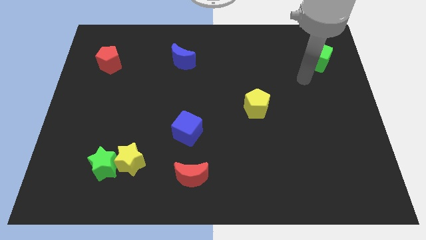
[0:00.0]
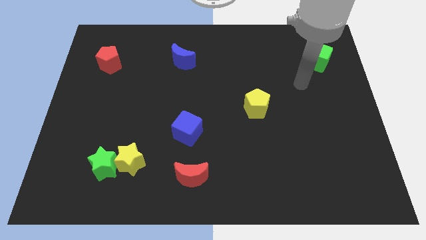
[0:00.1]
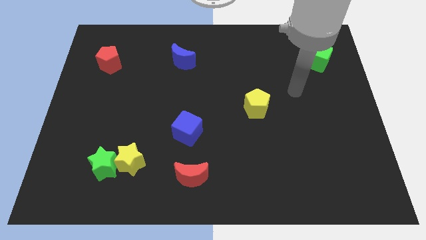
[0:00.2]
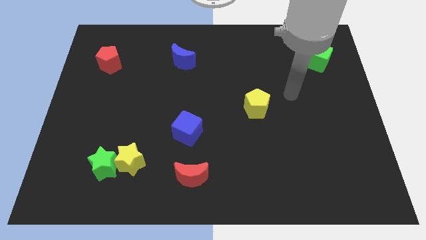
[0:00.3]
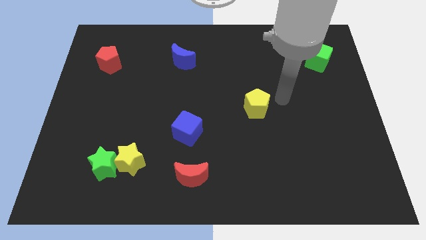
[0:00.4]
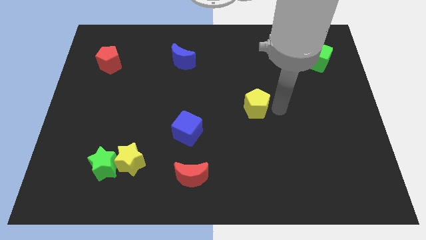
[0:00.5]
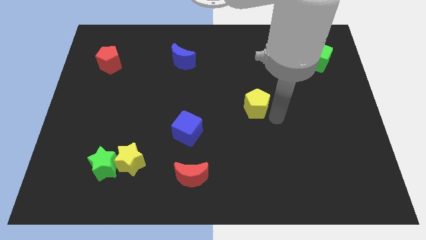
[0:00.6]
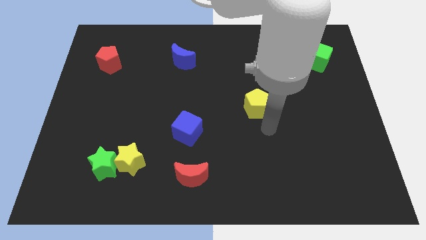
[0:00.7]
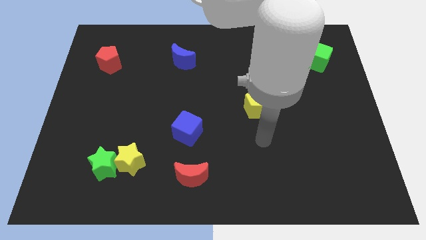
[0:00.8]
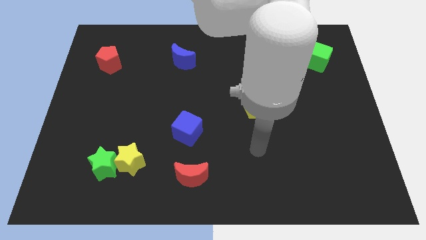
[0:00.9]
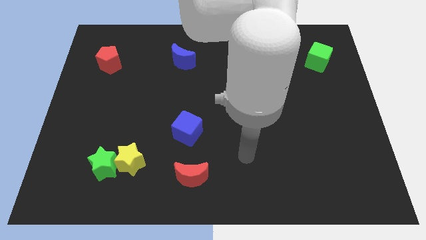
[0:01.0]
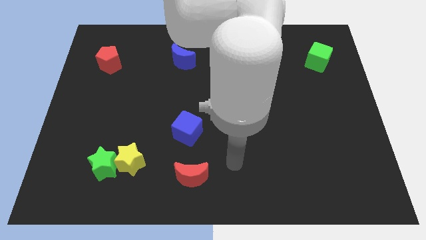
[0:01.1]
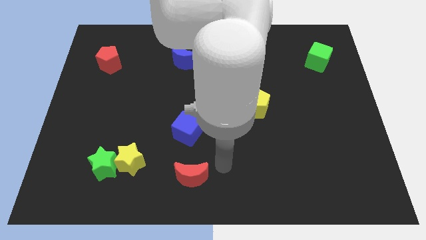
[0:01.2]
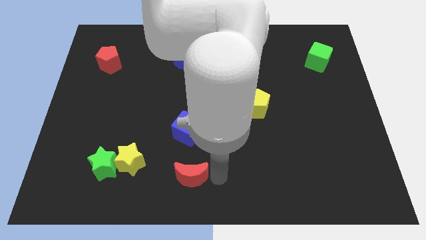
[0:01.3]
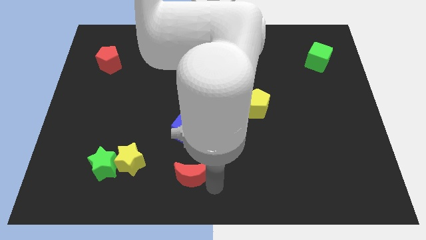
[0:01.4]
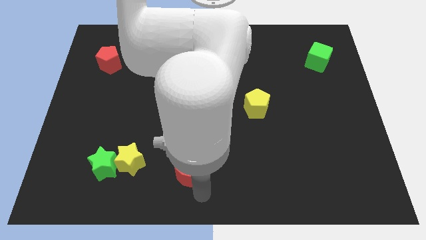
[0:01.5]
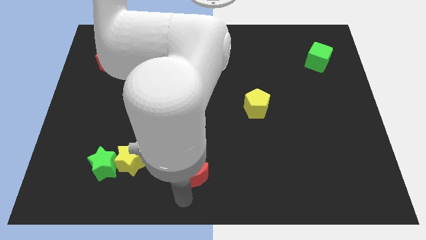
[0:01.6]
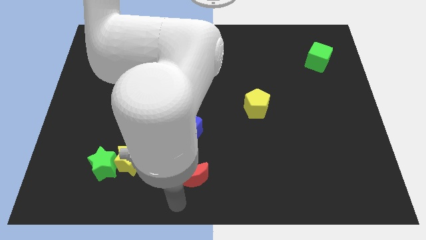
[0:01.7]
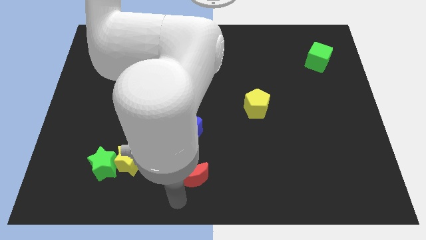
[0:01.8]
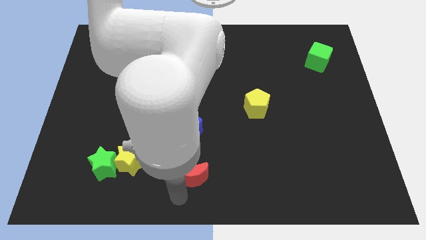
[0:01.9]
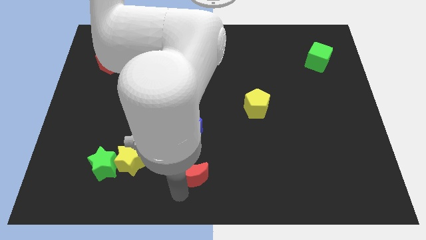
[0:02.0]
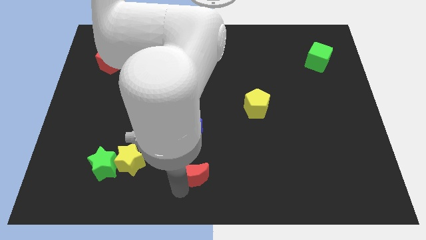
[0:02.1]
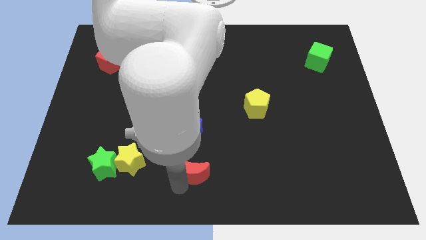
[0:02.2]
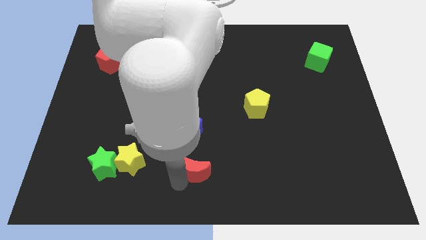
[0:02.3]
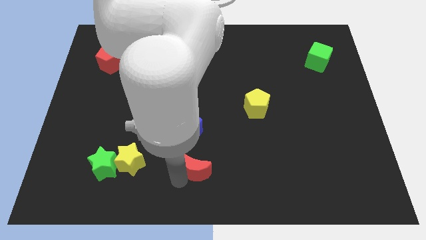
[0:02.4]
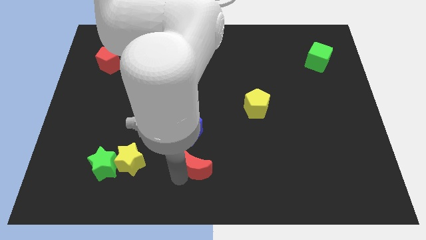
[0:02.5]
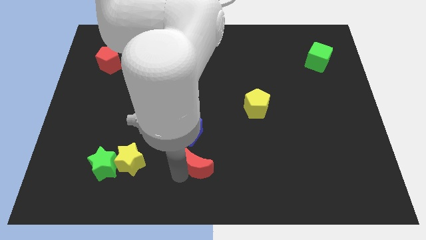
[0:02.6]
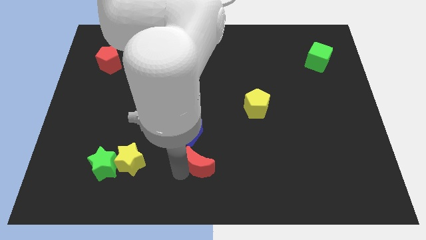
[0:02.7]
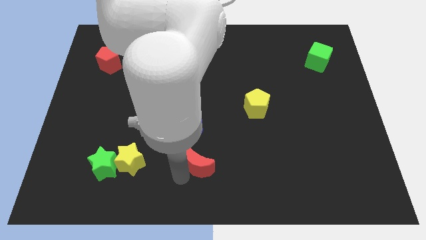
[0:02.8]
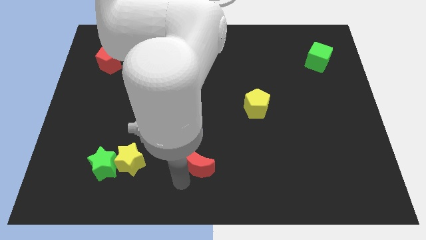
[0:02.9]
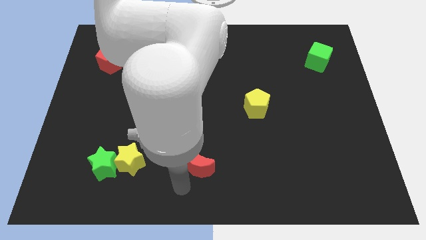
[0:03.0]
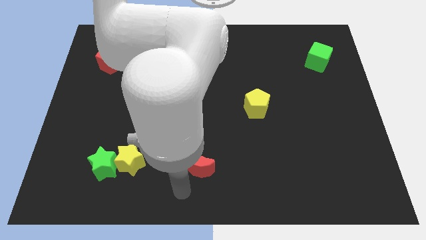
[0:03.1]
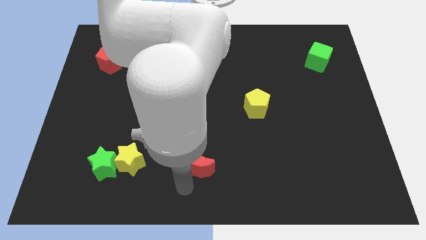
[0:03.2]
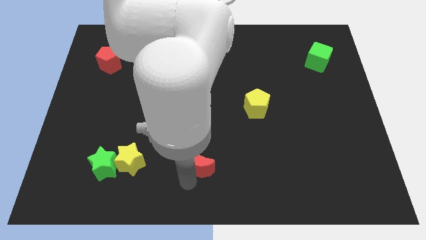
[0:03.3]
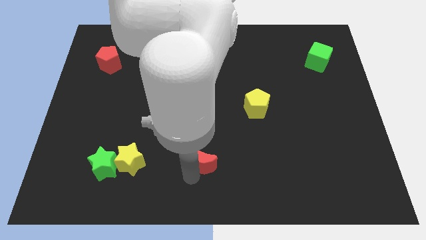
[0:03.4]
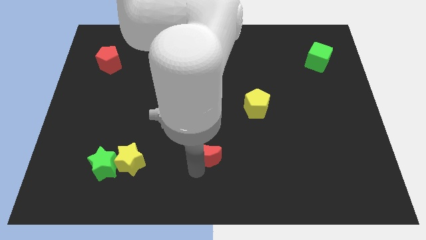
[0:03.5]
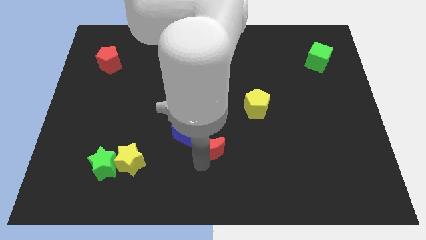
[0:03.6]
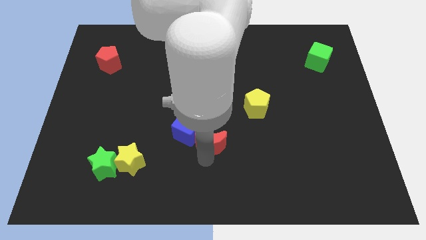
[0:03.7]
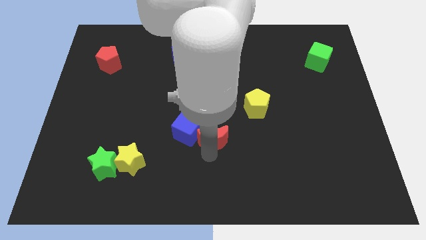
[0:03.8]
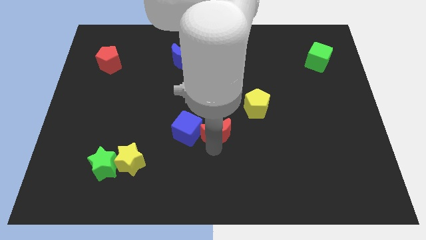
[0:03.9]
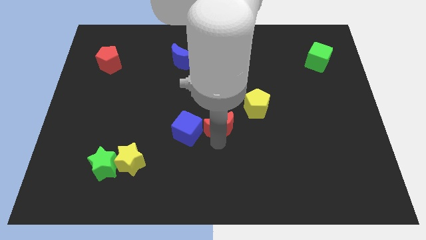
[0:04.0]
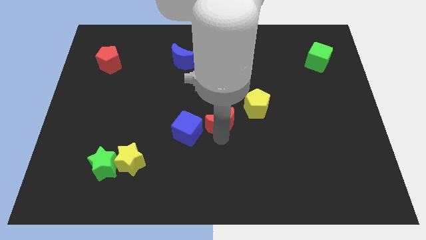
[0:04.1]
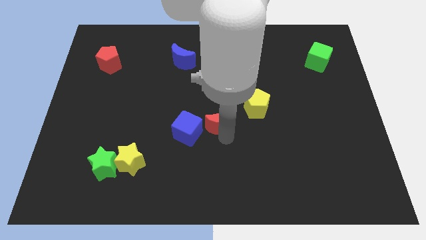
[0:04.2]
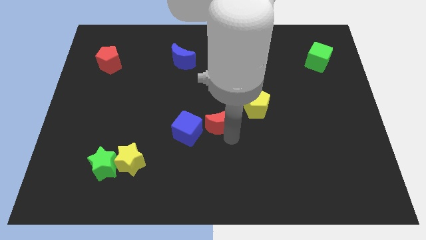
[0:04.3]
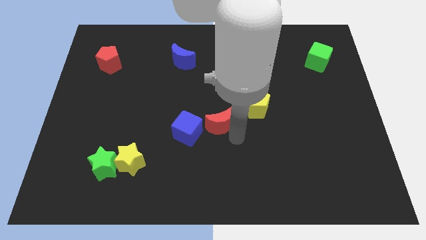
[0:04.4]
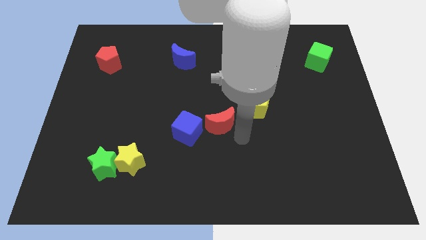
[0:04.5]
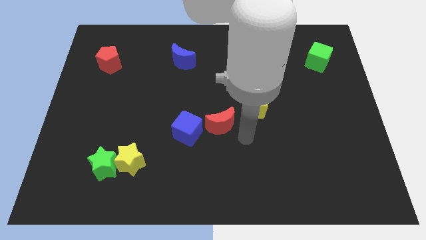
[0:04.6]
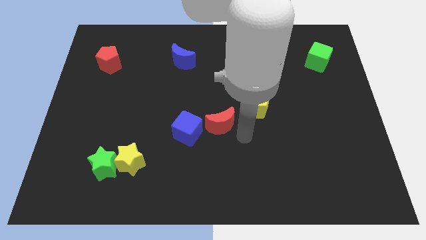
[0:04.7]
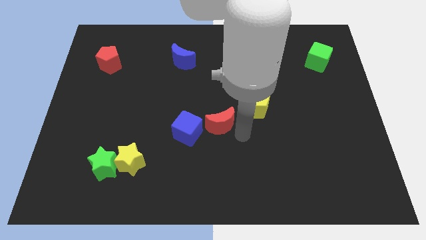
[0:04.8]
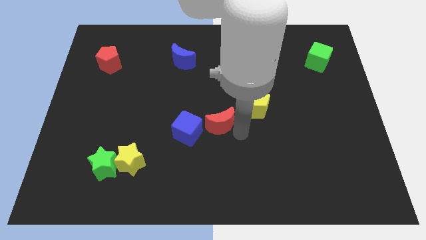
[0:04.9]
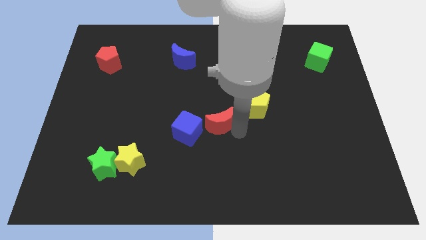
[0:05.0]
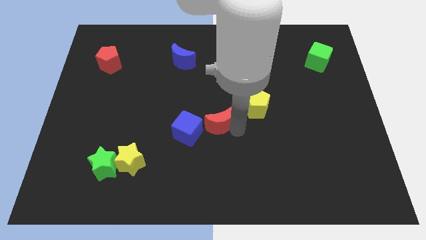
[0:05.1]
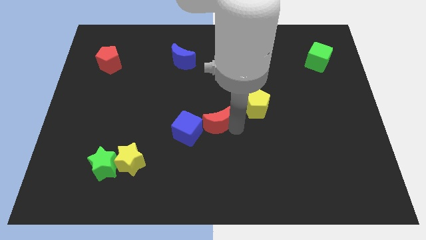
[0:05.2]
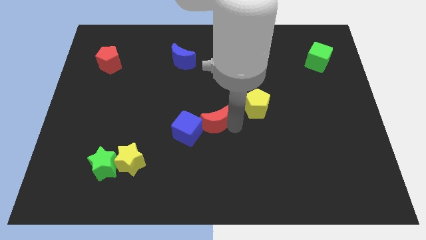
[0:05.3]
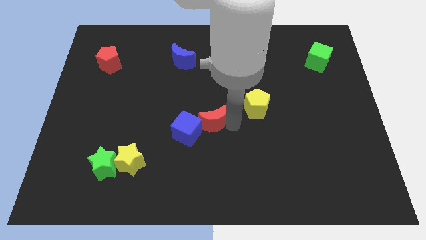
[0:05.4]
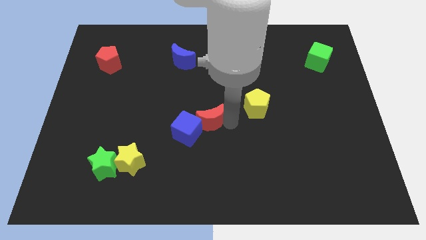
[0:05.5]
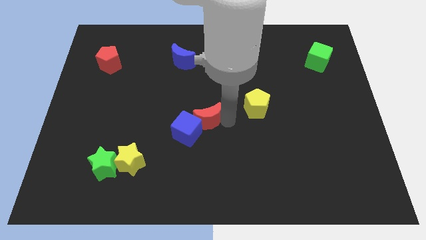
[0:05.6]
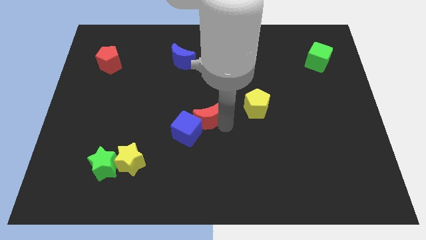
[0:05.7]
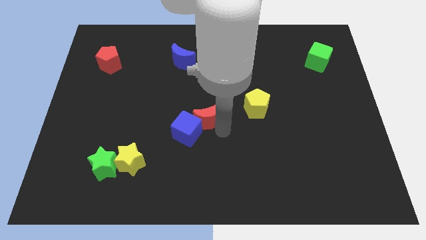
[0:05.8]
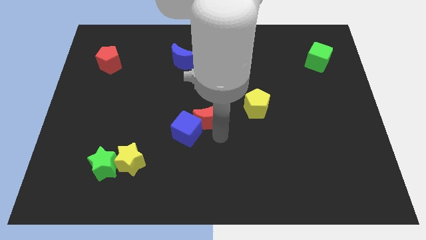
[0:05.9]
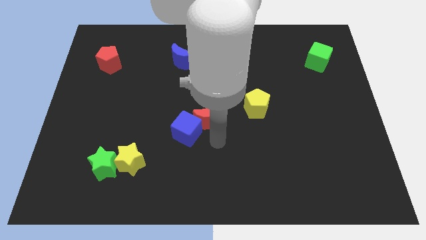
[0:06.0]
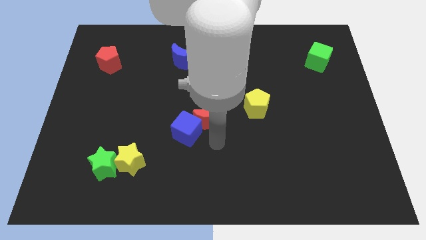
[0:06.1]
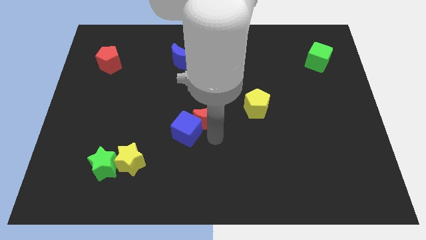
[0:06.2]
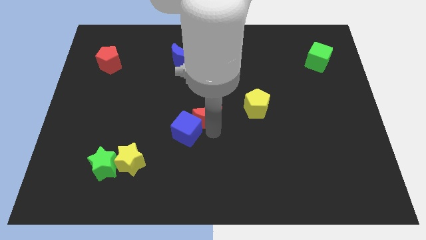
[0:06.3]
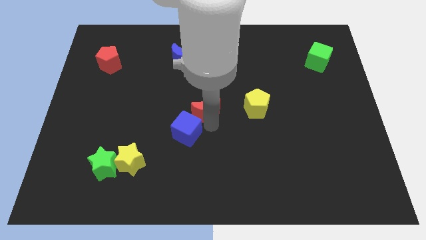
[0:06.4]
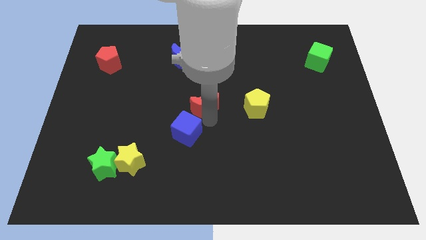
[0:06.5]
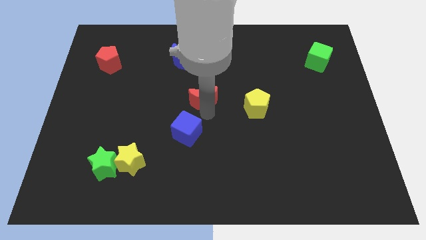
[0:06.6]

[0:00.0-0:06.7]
push the red moon upwards

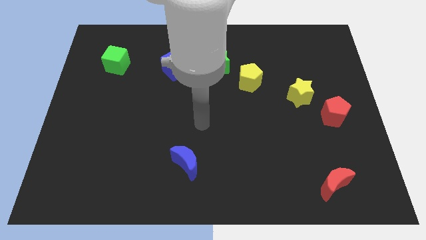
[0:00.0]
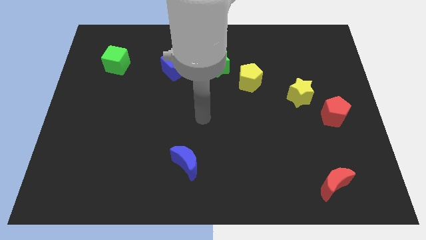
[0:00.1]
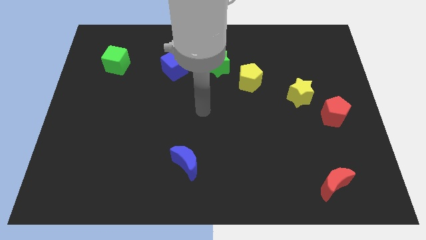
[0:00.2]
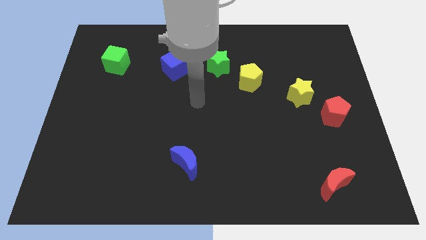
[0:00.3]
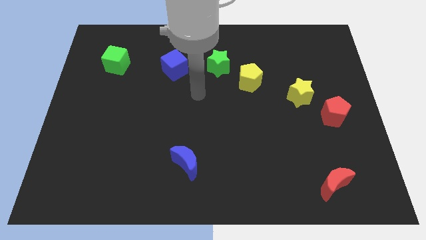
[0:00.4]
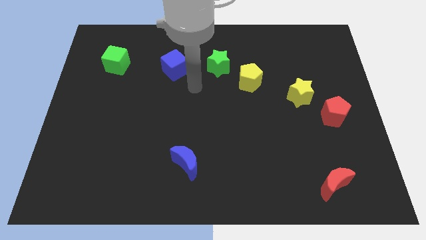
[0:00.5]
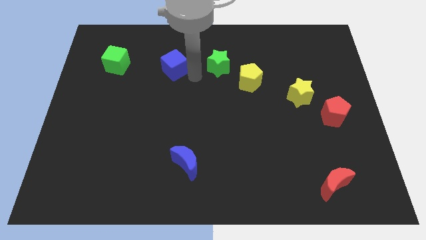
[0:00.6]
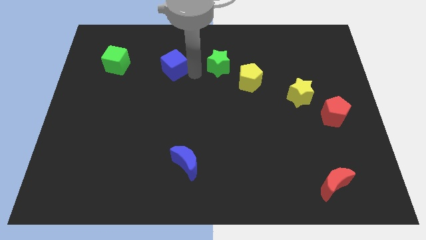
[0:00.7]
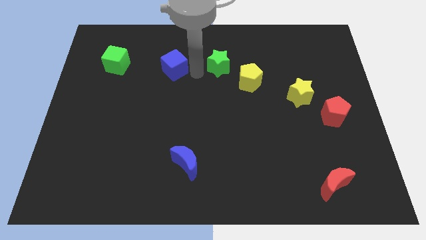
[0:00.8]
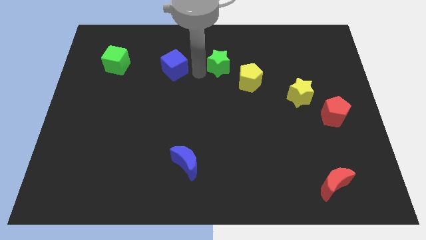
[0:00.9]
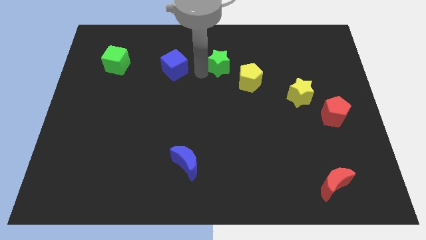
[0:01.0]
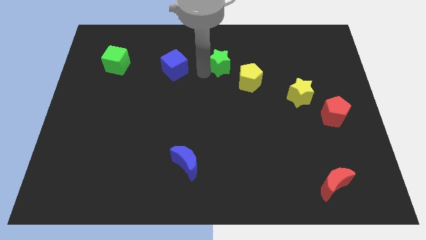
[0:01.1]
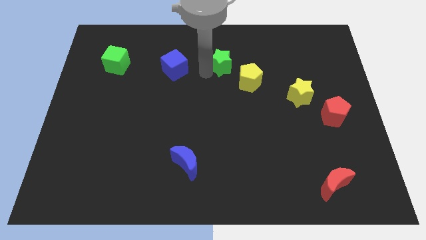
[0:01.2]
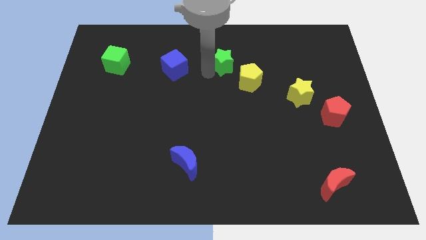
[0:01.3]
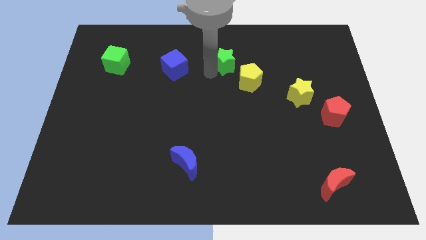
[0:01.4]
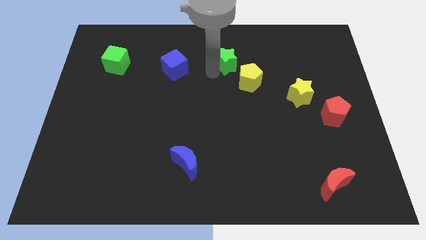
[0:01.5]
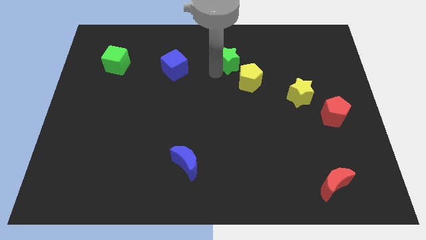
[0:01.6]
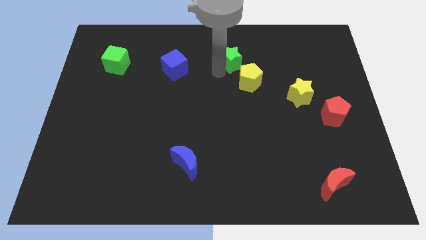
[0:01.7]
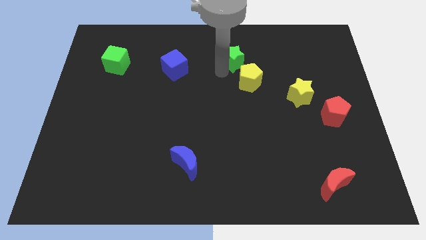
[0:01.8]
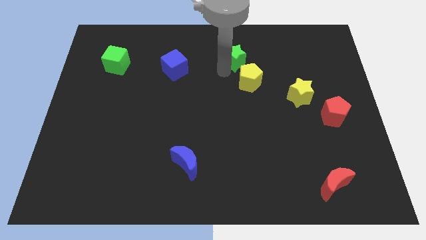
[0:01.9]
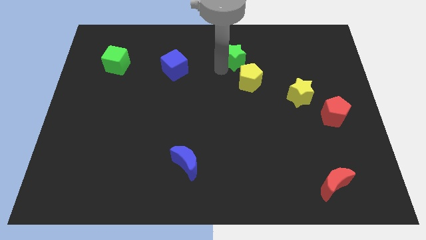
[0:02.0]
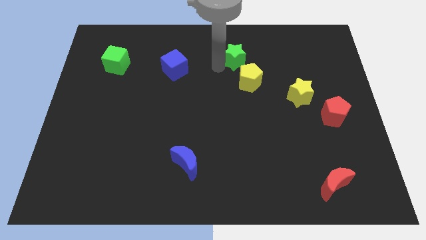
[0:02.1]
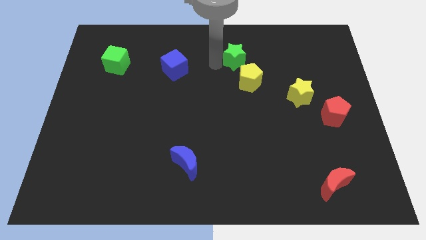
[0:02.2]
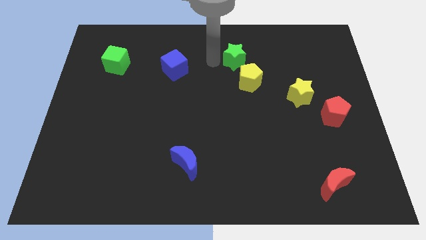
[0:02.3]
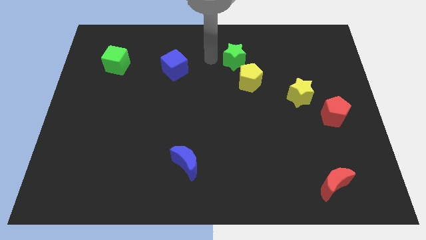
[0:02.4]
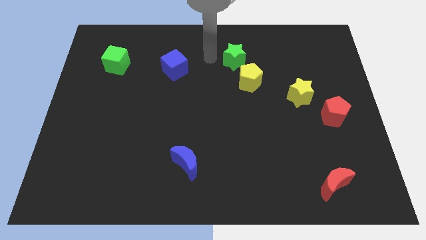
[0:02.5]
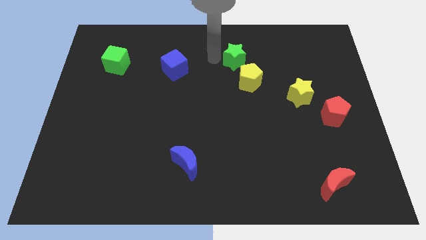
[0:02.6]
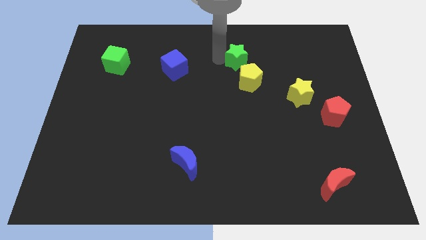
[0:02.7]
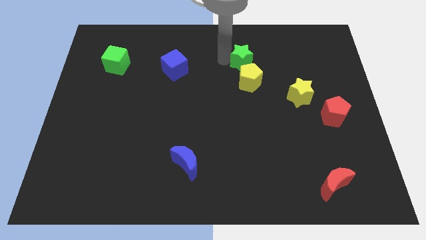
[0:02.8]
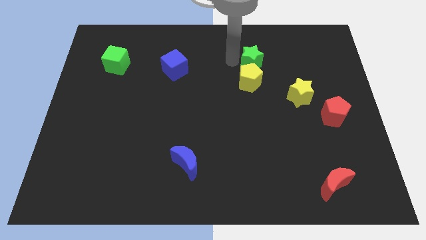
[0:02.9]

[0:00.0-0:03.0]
slide the green star right slightly
